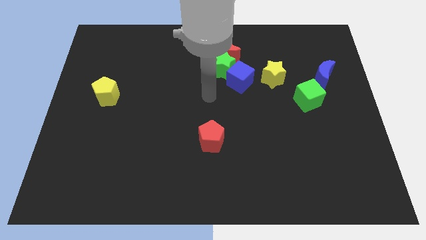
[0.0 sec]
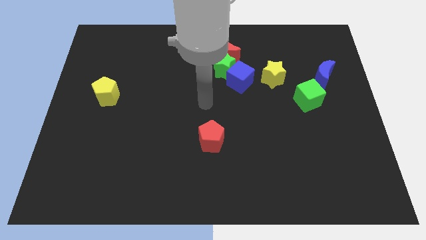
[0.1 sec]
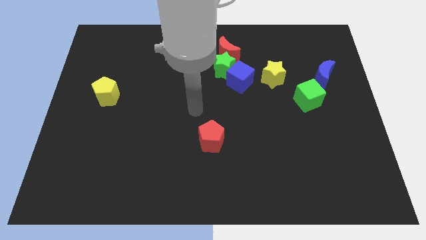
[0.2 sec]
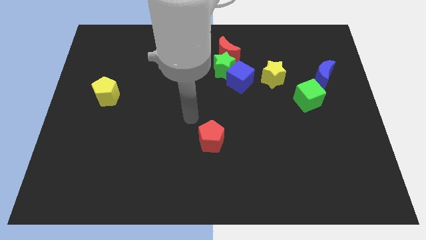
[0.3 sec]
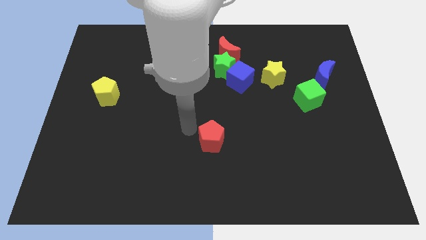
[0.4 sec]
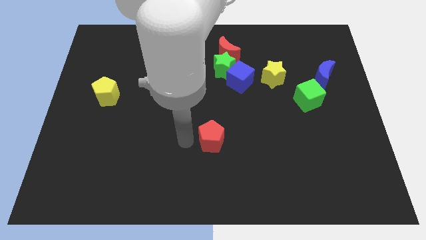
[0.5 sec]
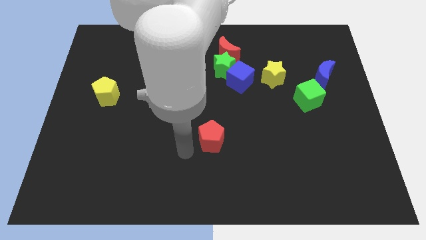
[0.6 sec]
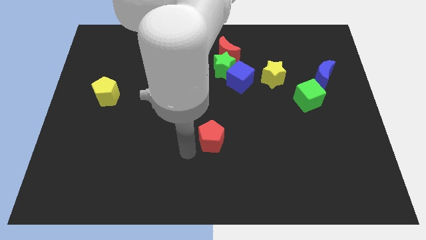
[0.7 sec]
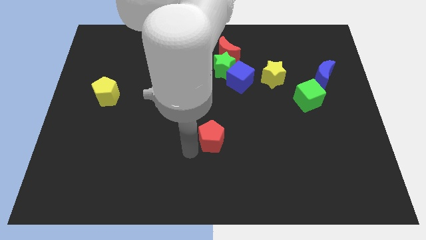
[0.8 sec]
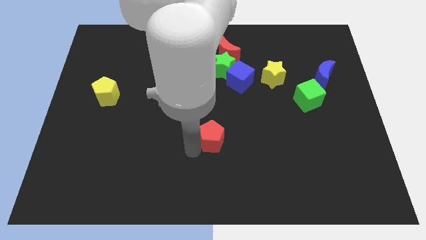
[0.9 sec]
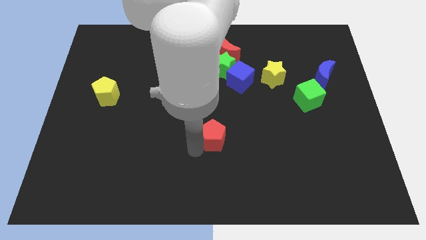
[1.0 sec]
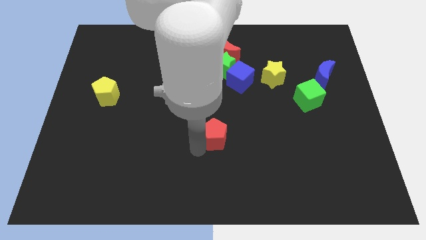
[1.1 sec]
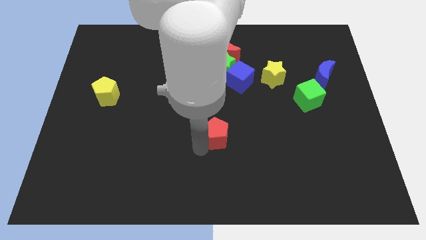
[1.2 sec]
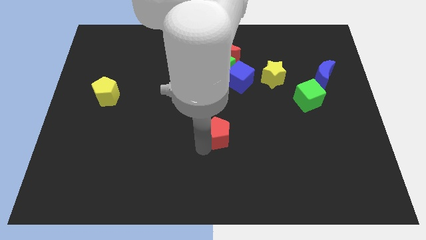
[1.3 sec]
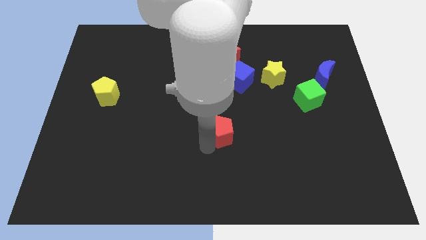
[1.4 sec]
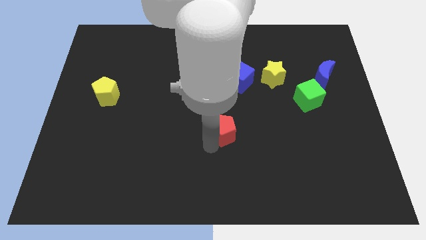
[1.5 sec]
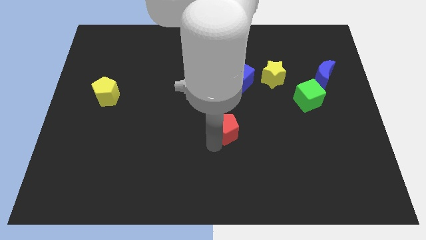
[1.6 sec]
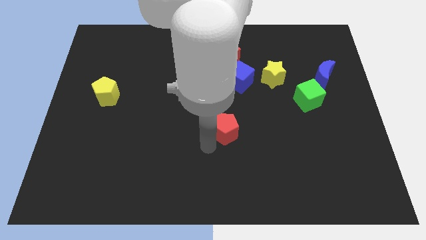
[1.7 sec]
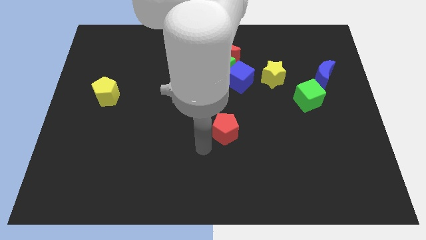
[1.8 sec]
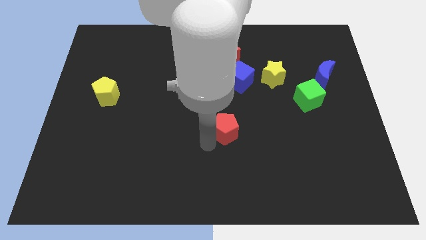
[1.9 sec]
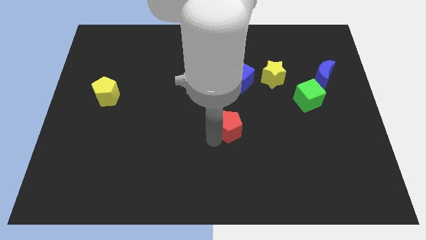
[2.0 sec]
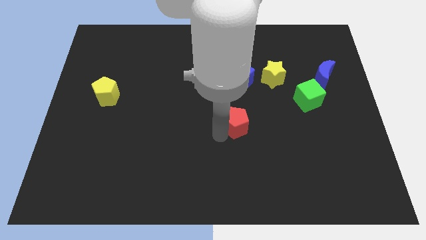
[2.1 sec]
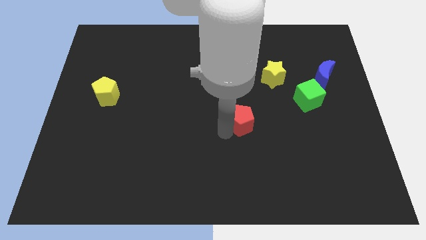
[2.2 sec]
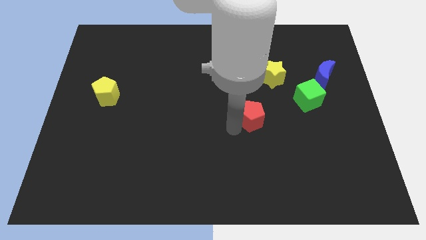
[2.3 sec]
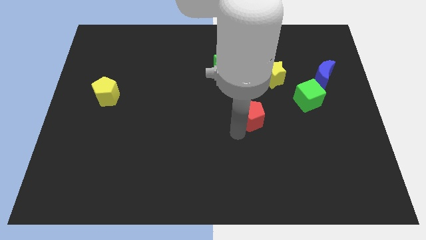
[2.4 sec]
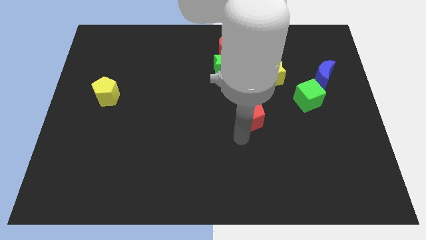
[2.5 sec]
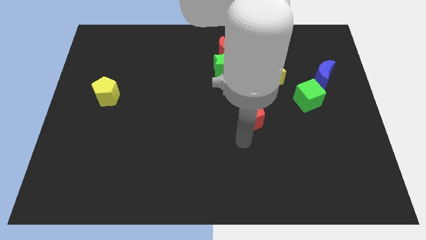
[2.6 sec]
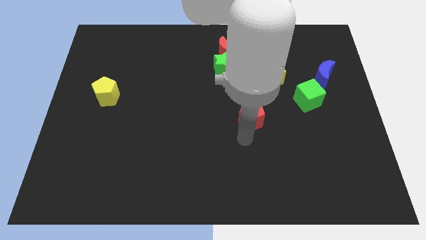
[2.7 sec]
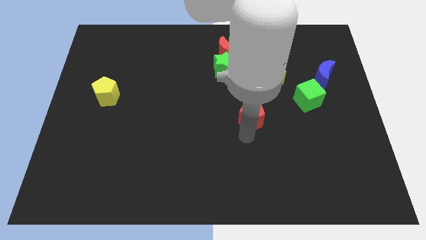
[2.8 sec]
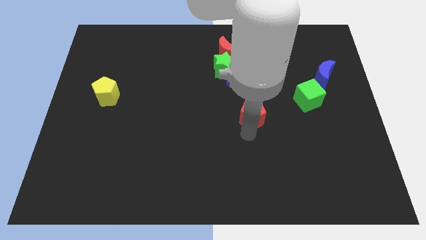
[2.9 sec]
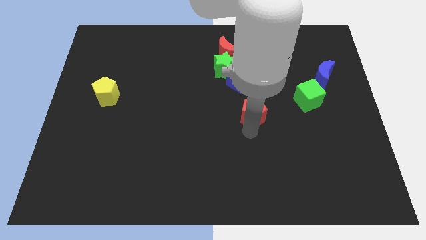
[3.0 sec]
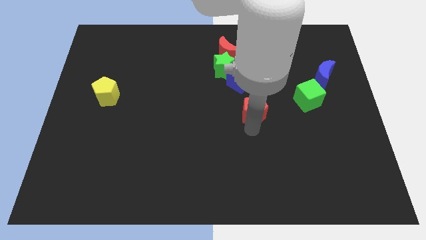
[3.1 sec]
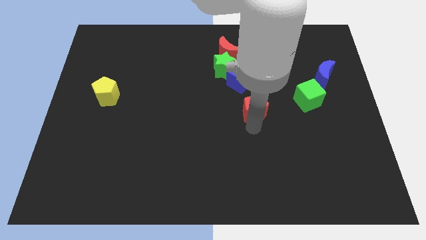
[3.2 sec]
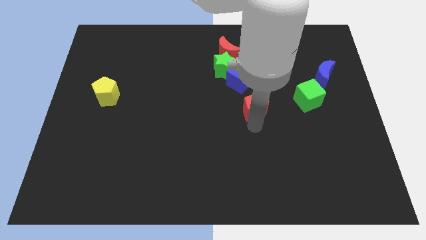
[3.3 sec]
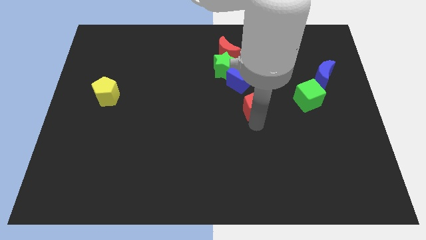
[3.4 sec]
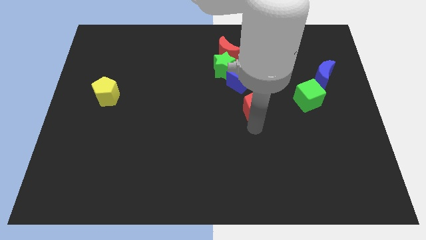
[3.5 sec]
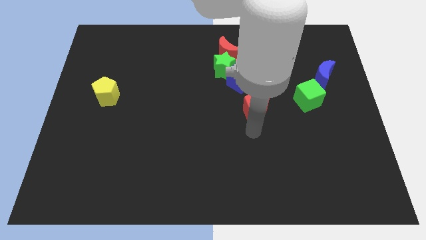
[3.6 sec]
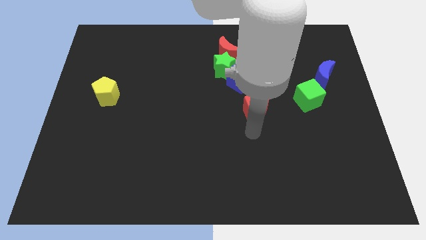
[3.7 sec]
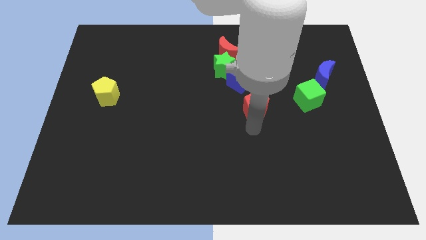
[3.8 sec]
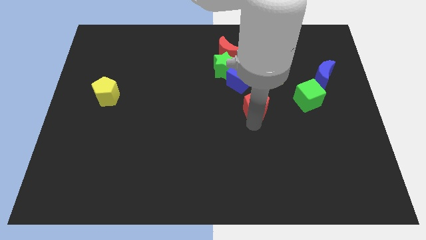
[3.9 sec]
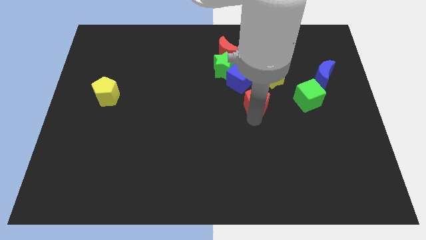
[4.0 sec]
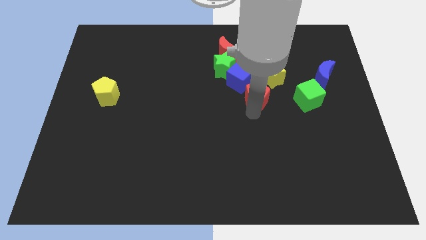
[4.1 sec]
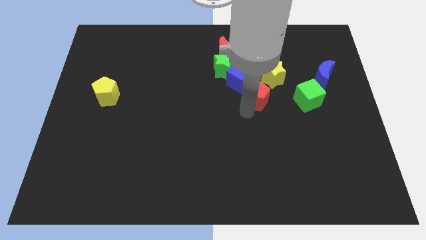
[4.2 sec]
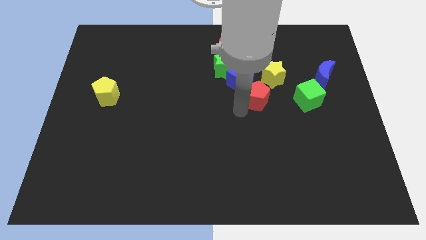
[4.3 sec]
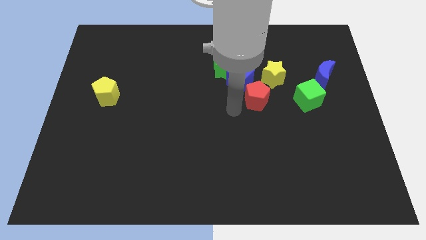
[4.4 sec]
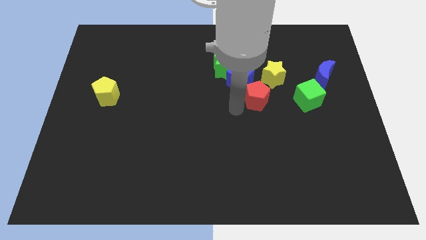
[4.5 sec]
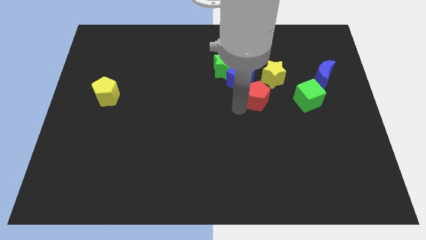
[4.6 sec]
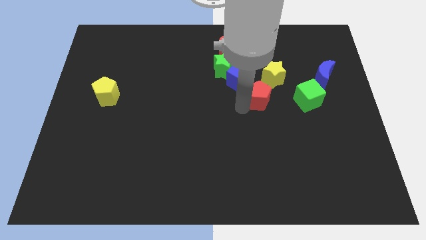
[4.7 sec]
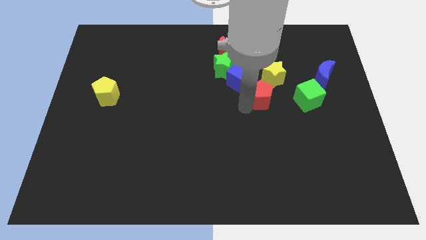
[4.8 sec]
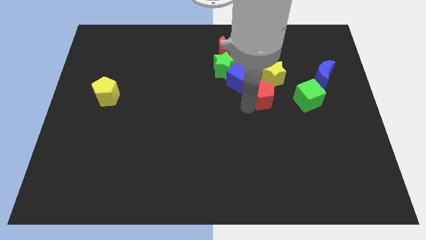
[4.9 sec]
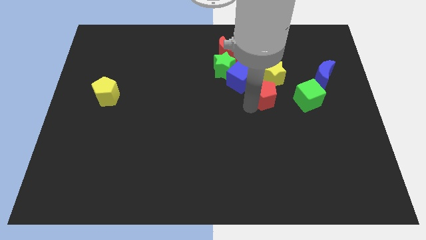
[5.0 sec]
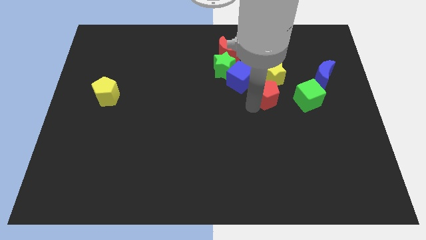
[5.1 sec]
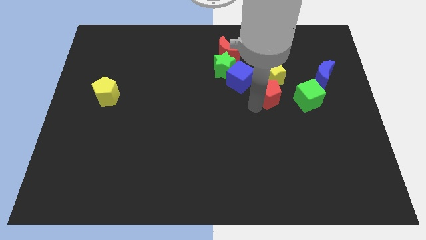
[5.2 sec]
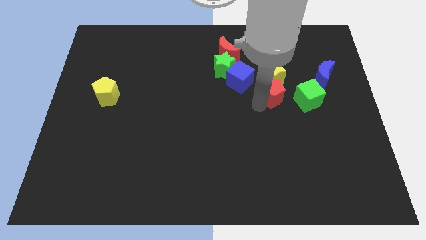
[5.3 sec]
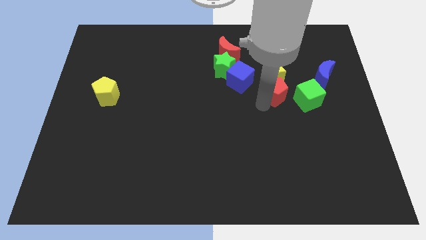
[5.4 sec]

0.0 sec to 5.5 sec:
move the red pentagon up and right diagonally

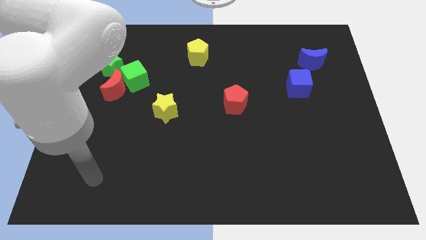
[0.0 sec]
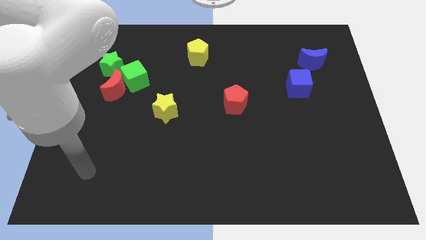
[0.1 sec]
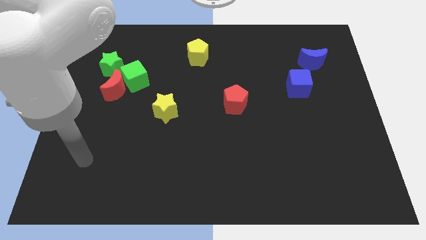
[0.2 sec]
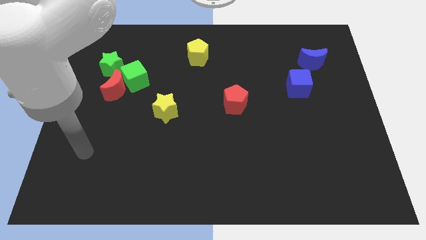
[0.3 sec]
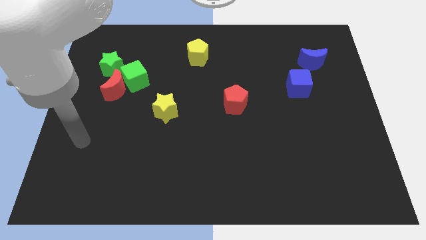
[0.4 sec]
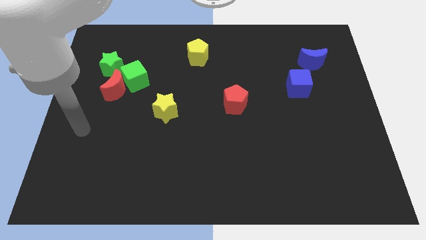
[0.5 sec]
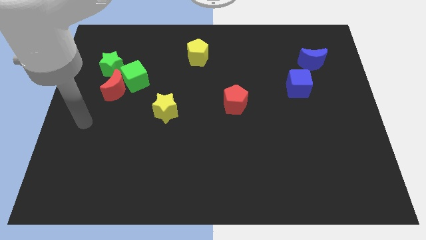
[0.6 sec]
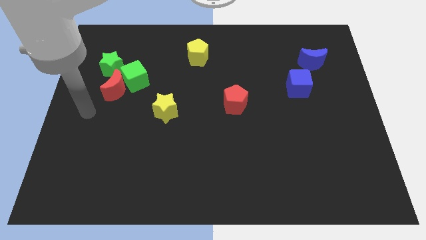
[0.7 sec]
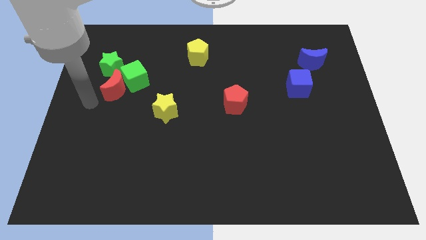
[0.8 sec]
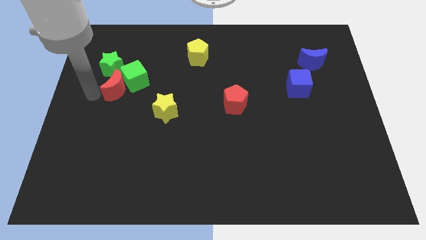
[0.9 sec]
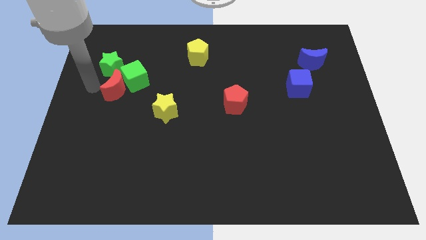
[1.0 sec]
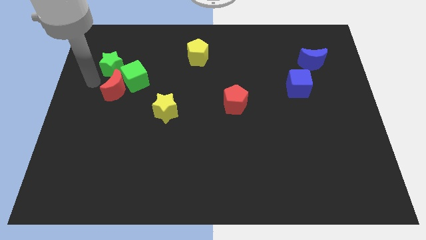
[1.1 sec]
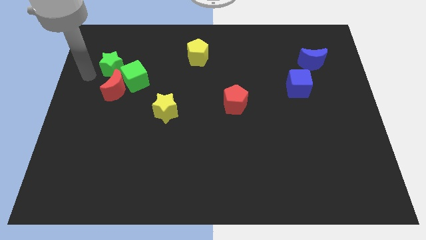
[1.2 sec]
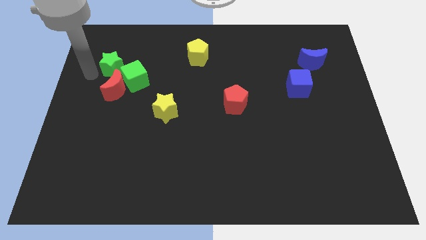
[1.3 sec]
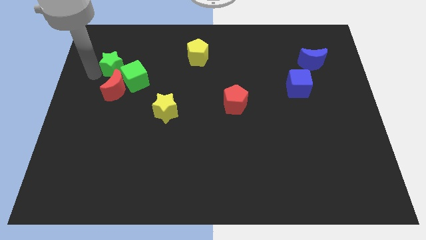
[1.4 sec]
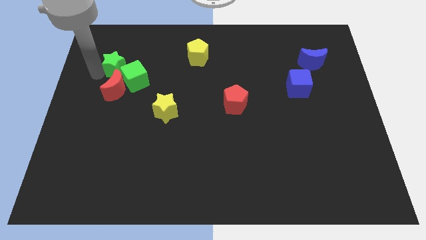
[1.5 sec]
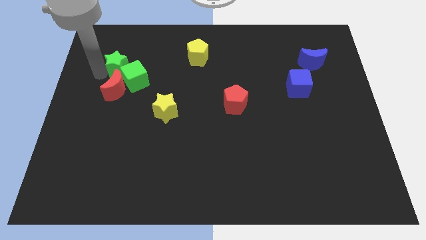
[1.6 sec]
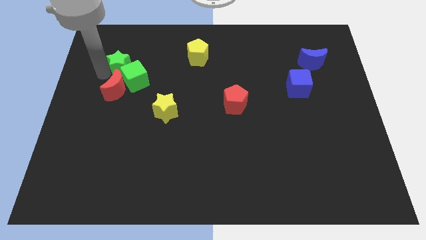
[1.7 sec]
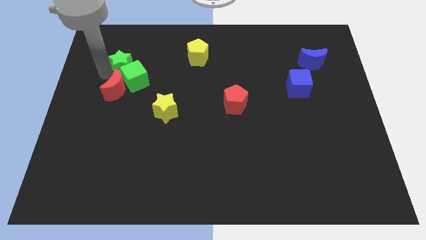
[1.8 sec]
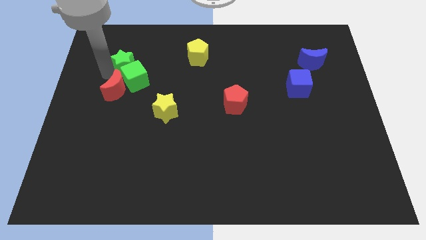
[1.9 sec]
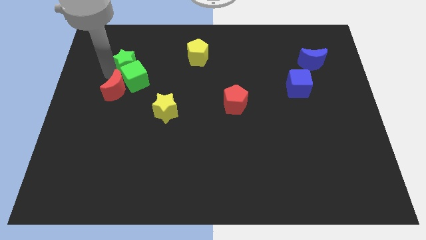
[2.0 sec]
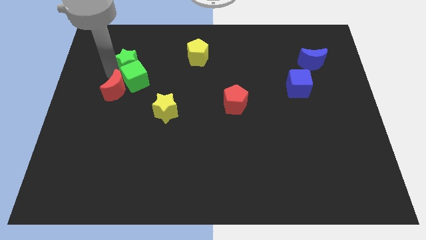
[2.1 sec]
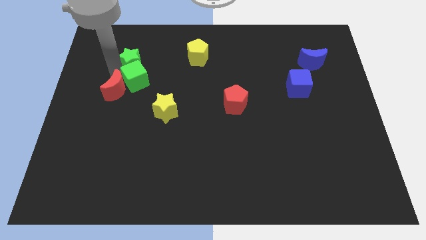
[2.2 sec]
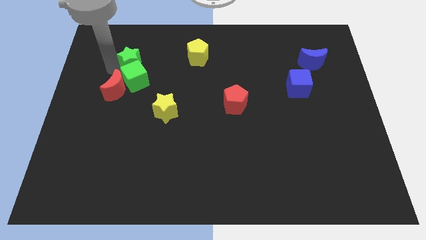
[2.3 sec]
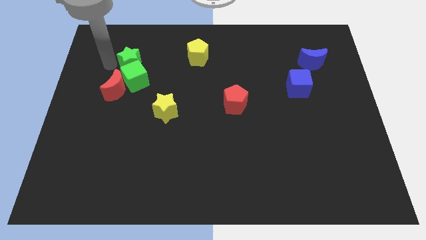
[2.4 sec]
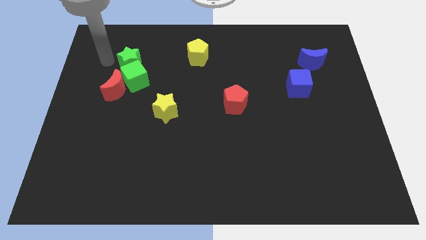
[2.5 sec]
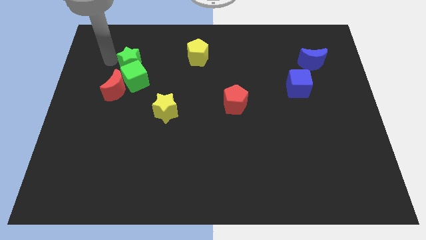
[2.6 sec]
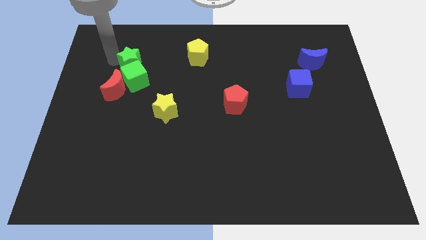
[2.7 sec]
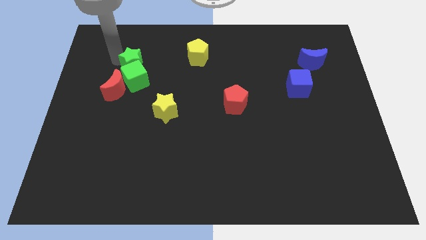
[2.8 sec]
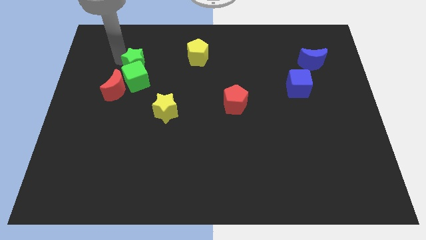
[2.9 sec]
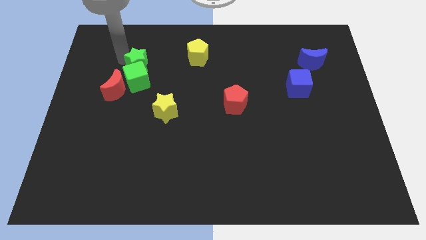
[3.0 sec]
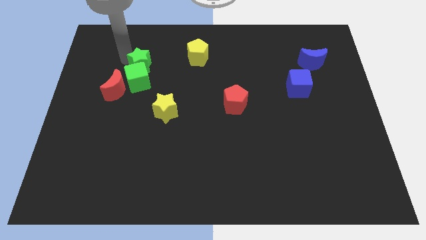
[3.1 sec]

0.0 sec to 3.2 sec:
slightly move the green star right
